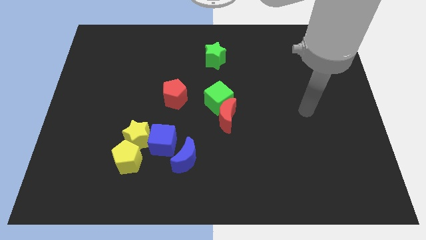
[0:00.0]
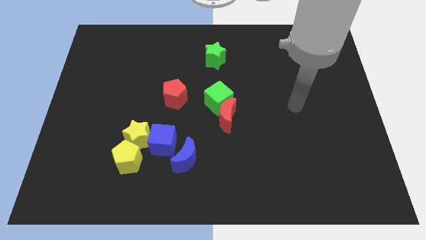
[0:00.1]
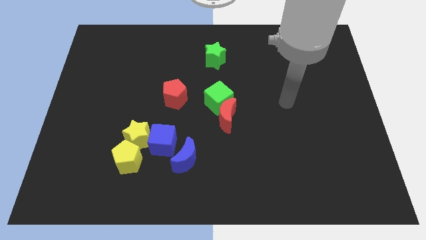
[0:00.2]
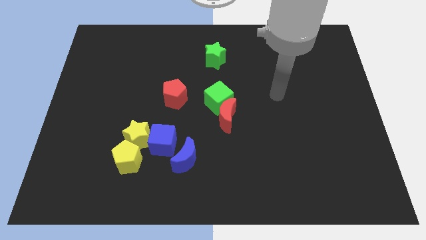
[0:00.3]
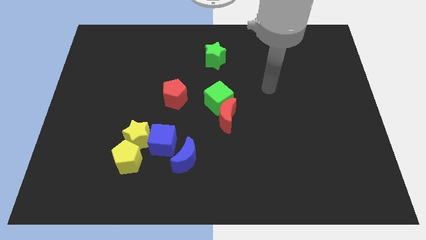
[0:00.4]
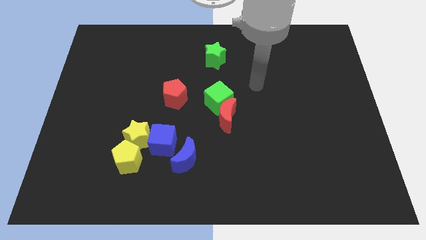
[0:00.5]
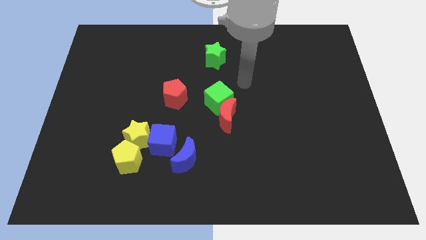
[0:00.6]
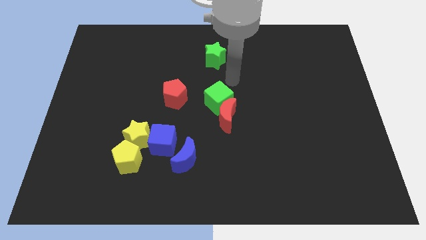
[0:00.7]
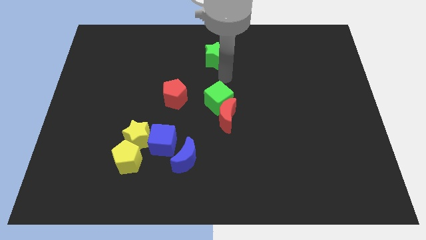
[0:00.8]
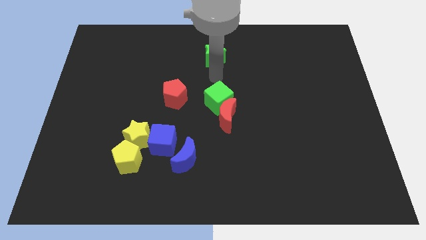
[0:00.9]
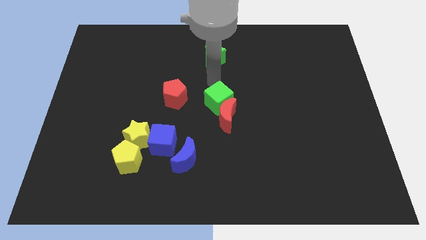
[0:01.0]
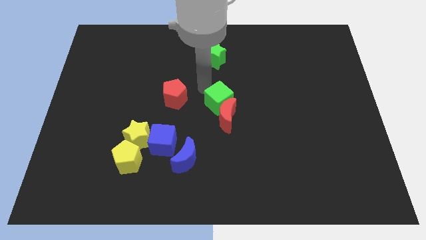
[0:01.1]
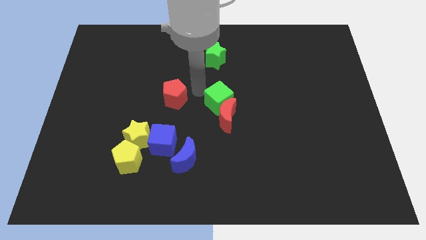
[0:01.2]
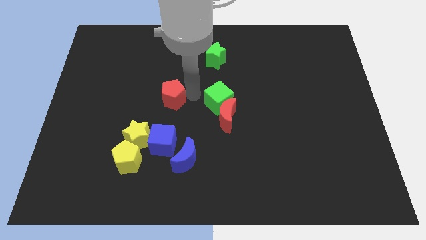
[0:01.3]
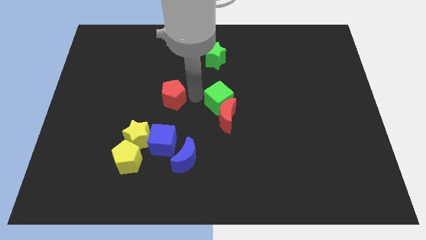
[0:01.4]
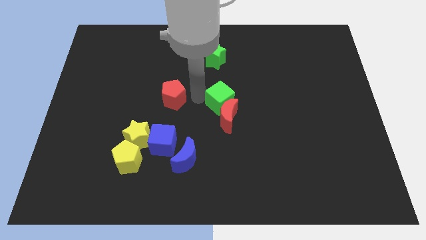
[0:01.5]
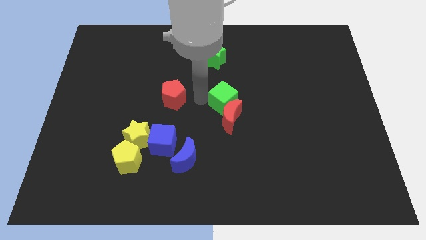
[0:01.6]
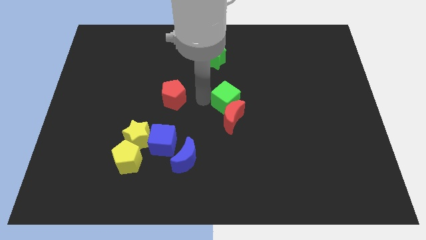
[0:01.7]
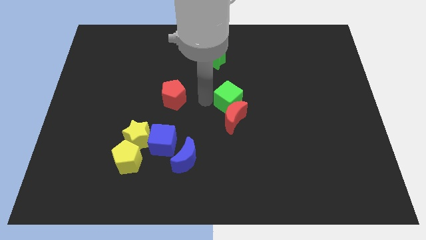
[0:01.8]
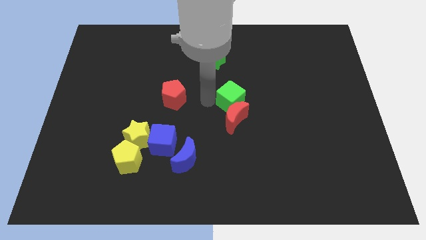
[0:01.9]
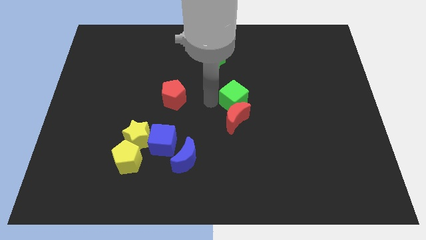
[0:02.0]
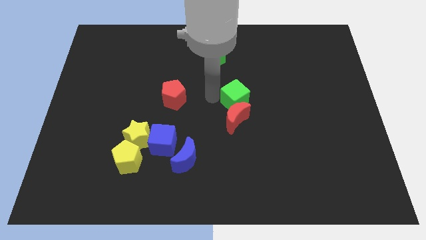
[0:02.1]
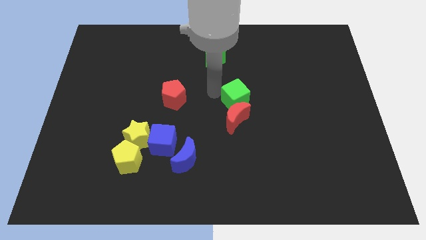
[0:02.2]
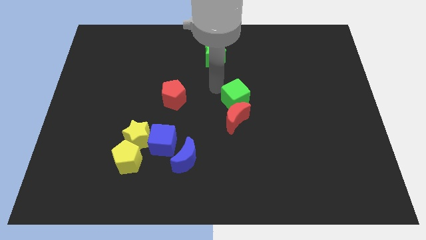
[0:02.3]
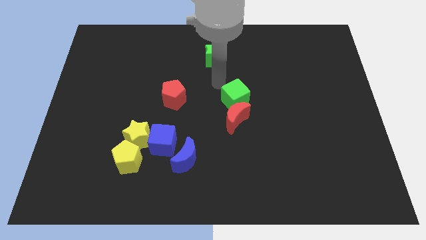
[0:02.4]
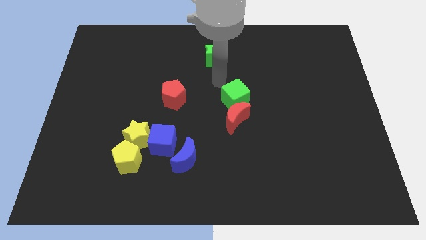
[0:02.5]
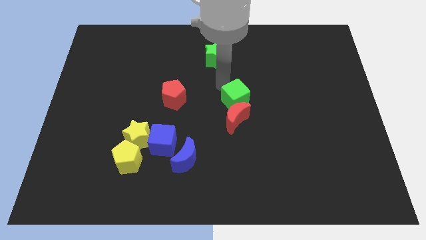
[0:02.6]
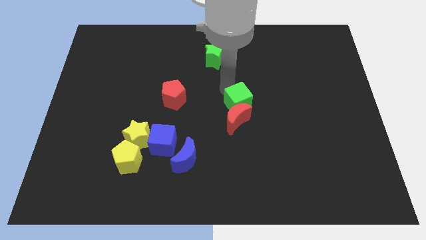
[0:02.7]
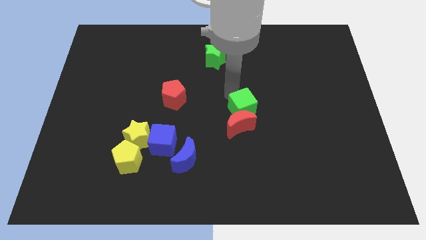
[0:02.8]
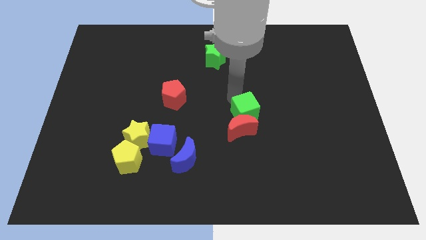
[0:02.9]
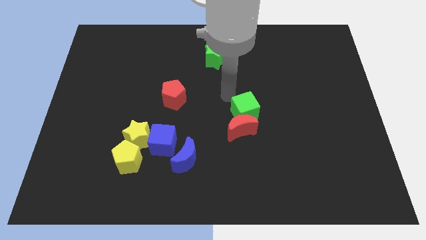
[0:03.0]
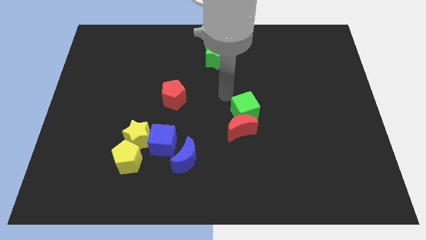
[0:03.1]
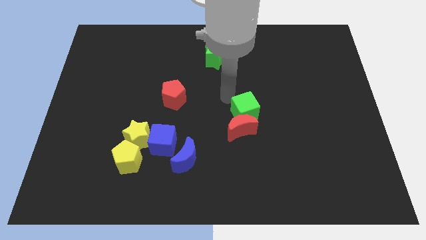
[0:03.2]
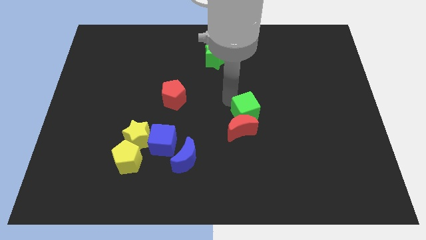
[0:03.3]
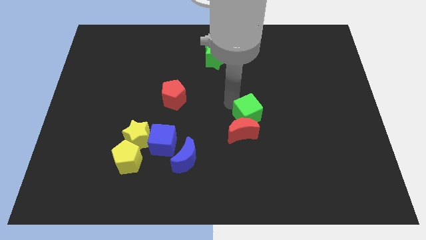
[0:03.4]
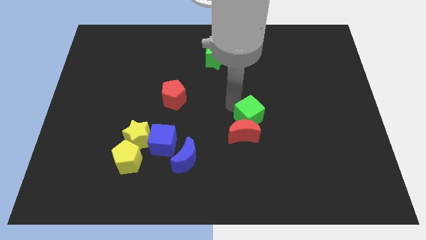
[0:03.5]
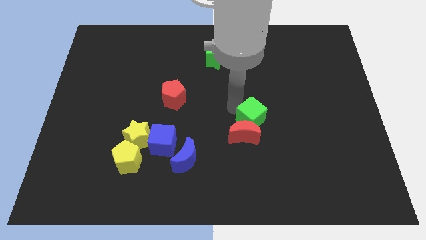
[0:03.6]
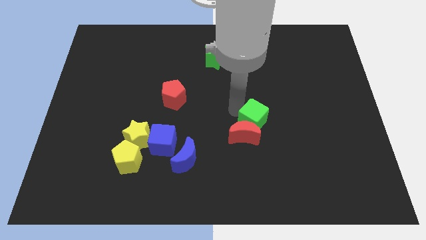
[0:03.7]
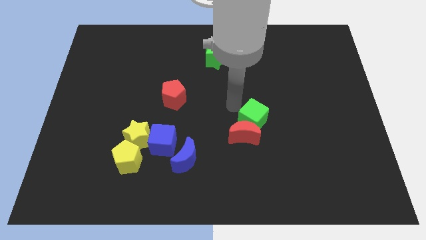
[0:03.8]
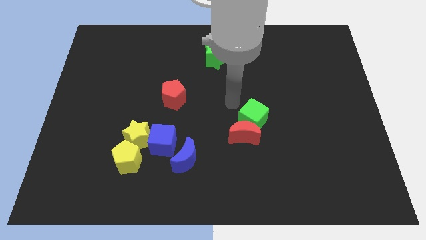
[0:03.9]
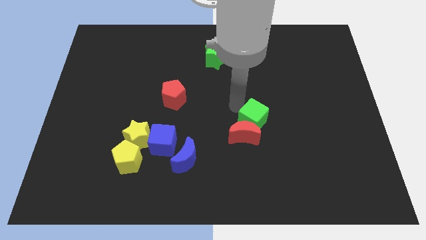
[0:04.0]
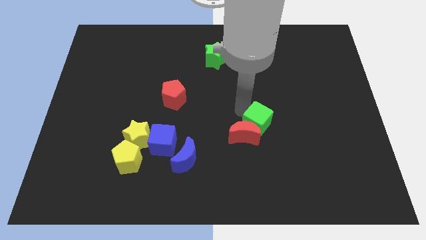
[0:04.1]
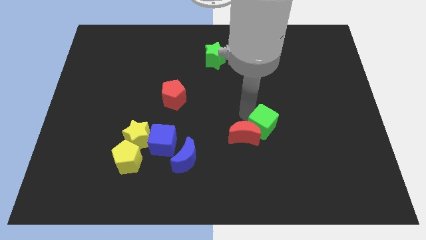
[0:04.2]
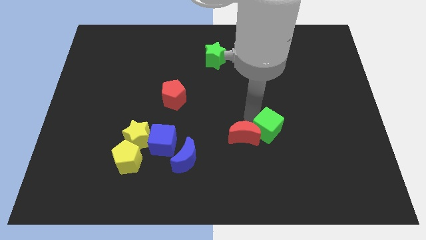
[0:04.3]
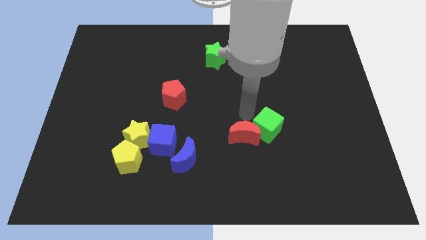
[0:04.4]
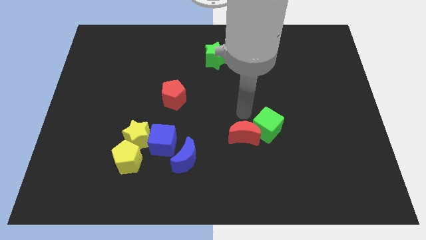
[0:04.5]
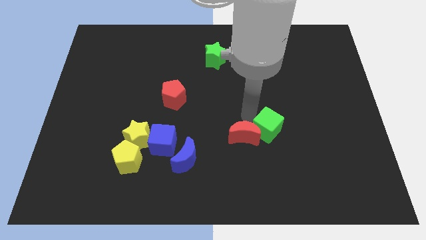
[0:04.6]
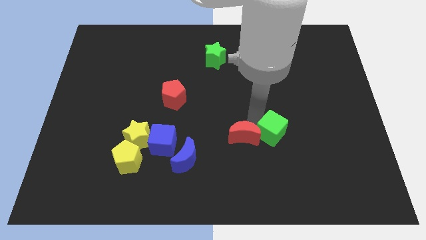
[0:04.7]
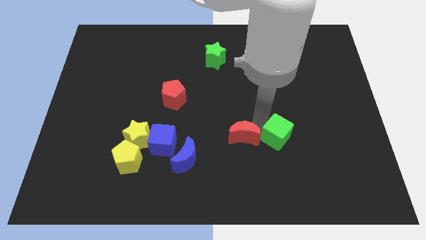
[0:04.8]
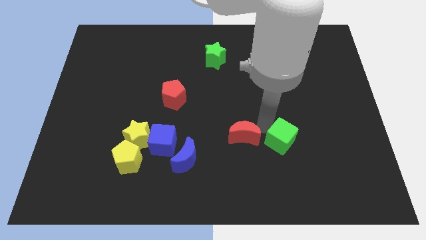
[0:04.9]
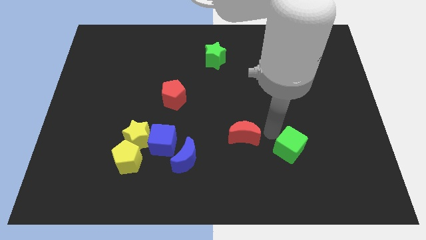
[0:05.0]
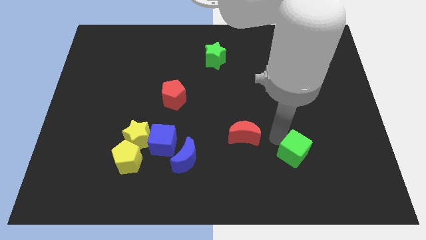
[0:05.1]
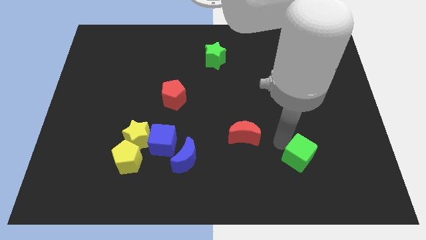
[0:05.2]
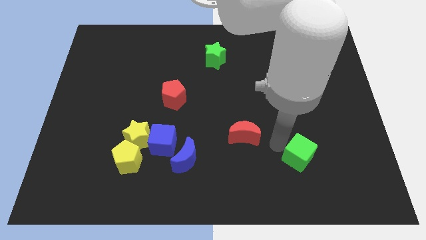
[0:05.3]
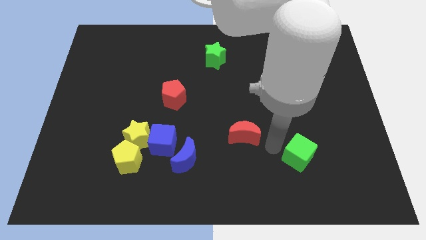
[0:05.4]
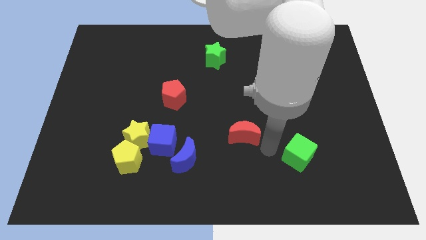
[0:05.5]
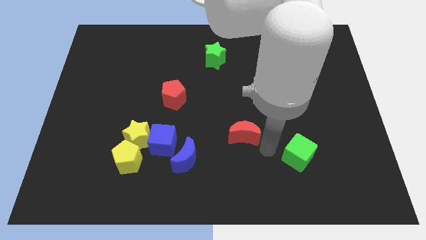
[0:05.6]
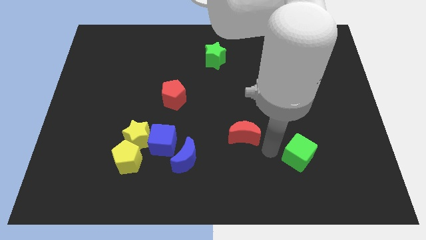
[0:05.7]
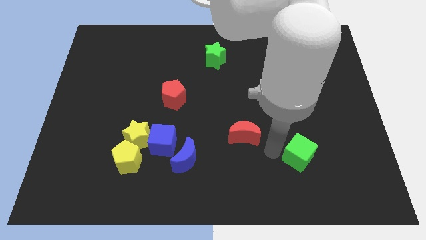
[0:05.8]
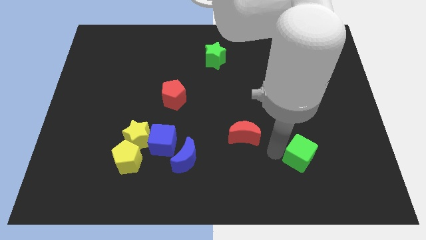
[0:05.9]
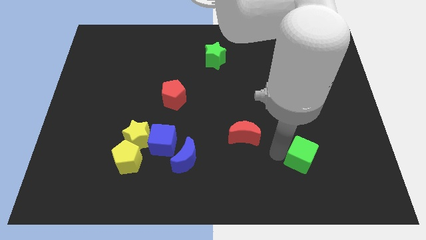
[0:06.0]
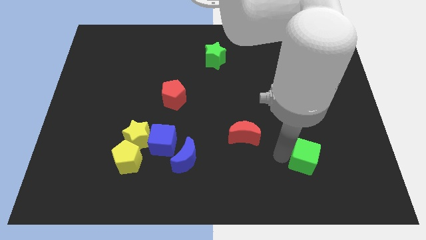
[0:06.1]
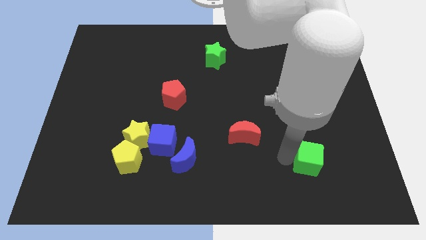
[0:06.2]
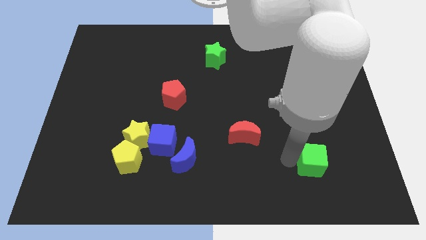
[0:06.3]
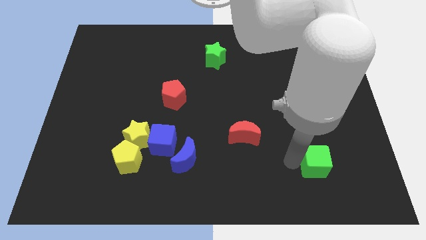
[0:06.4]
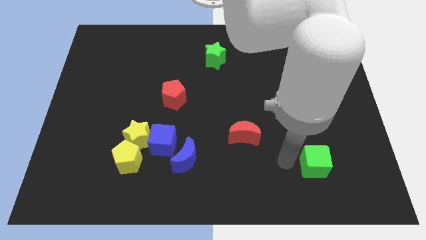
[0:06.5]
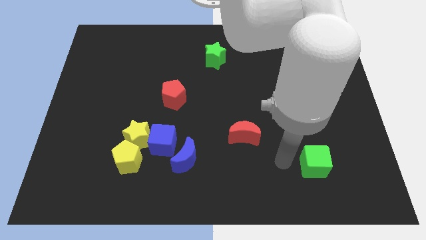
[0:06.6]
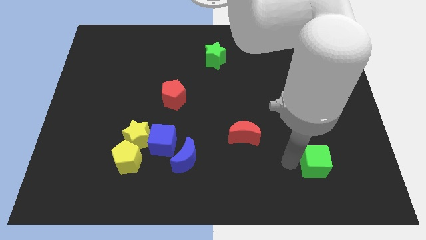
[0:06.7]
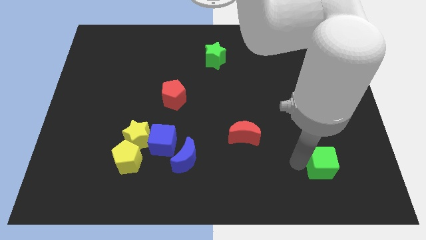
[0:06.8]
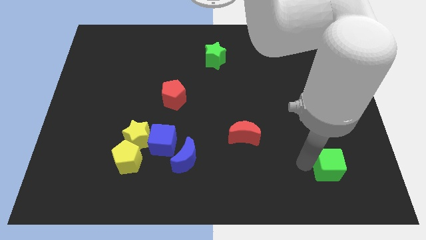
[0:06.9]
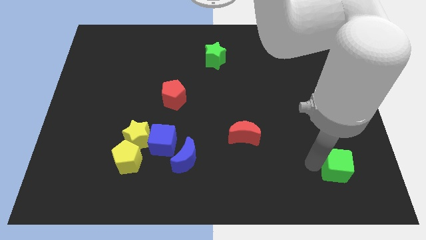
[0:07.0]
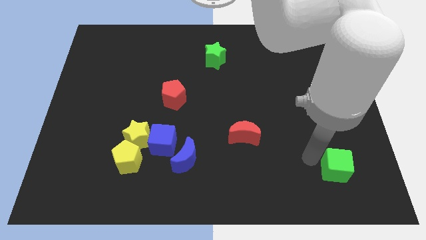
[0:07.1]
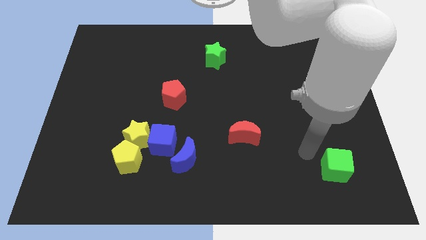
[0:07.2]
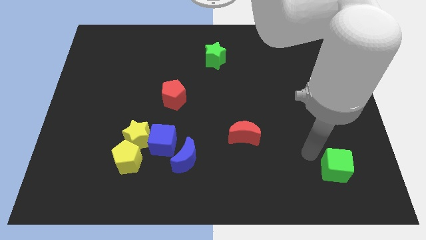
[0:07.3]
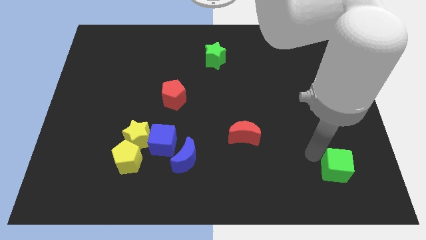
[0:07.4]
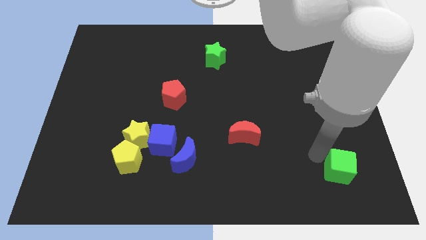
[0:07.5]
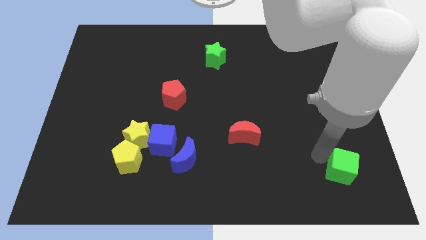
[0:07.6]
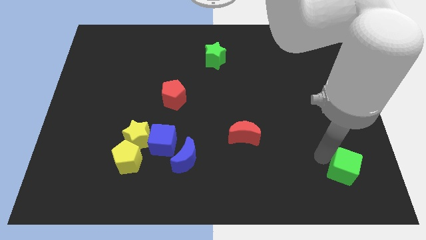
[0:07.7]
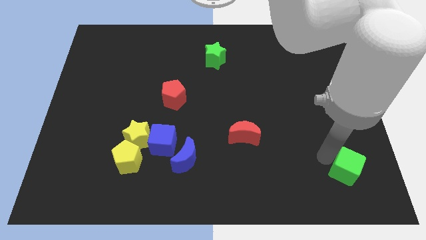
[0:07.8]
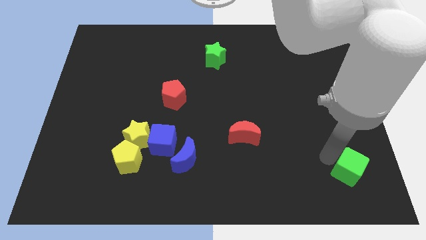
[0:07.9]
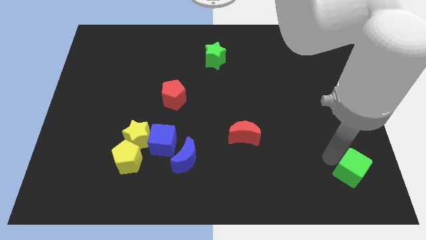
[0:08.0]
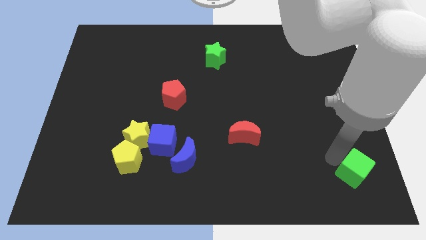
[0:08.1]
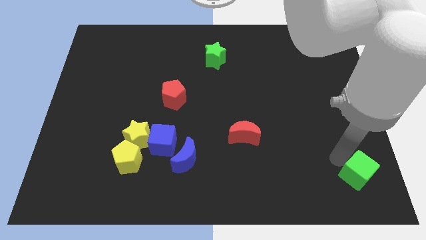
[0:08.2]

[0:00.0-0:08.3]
slide the green cube to the bottom right
